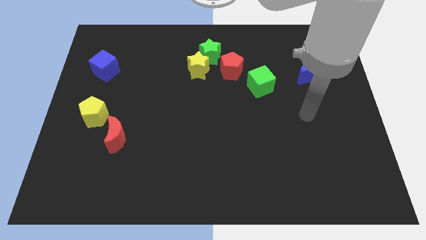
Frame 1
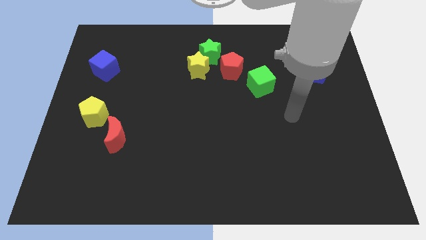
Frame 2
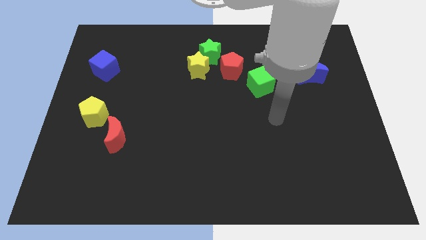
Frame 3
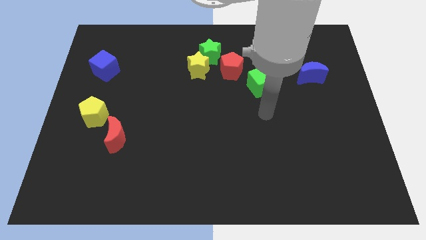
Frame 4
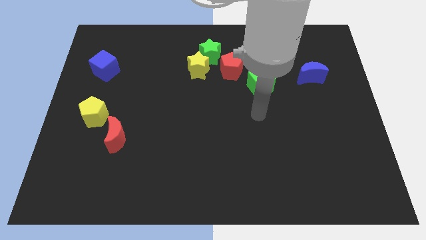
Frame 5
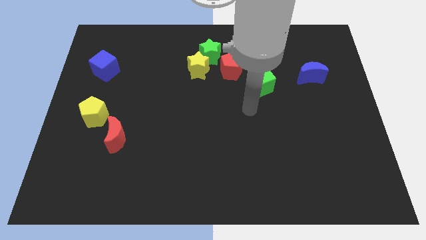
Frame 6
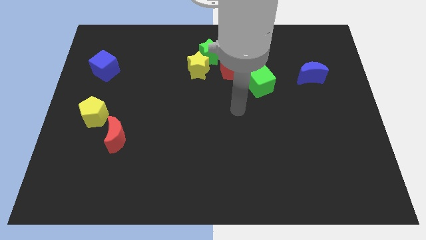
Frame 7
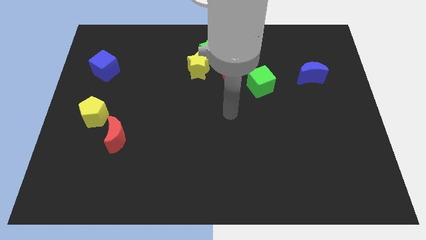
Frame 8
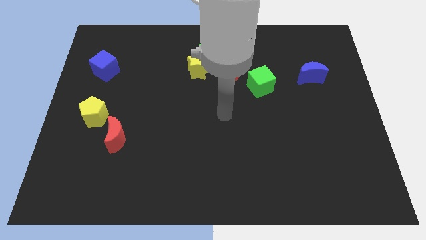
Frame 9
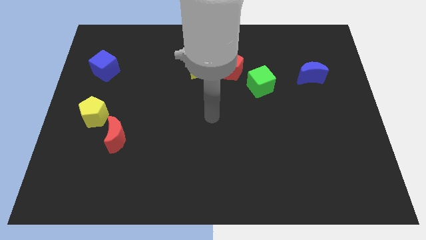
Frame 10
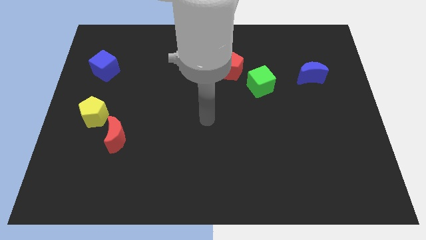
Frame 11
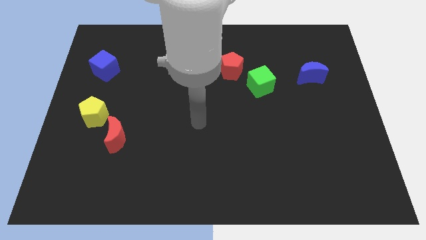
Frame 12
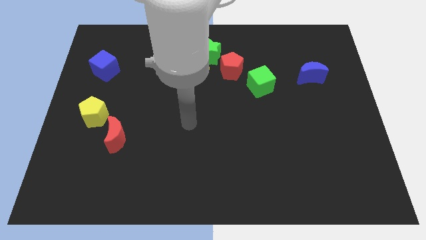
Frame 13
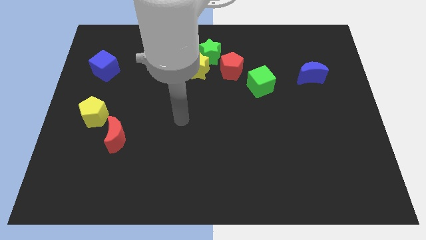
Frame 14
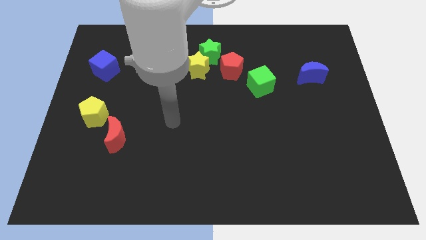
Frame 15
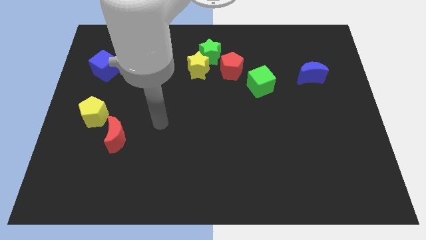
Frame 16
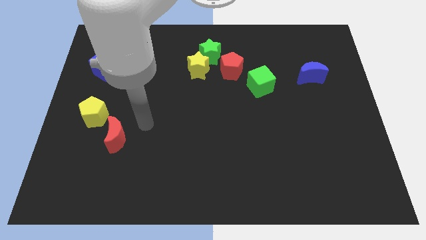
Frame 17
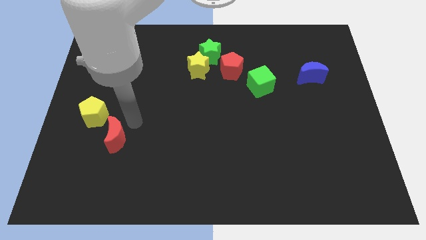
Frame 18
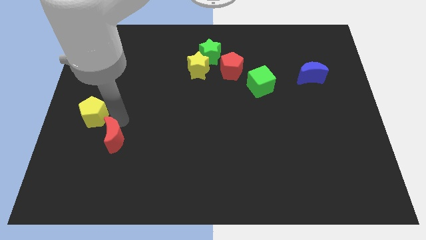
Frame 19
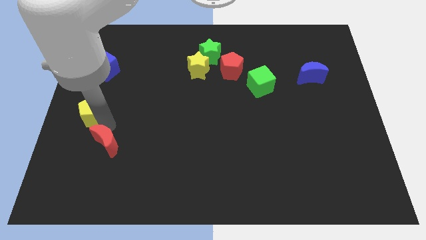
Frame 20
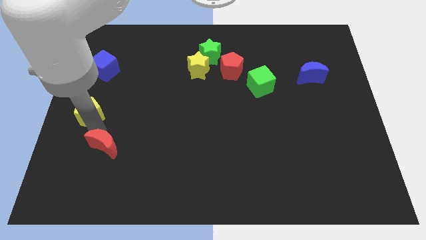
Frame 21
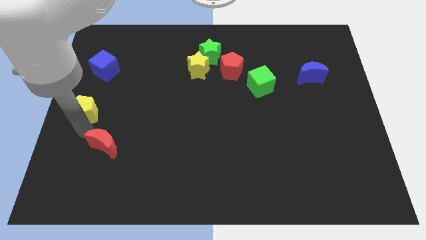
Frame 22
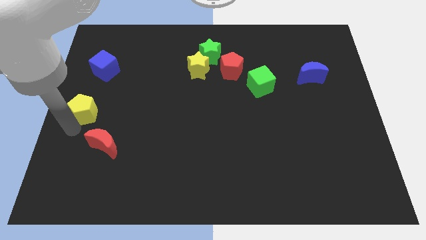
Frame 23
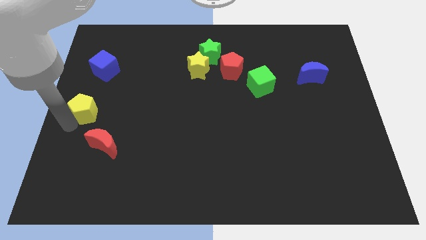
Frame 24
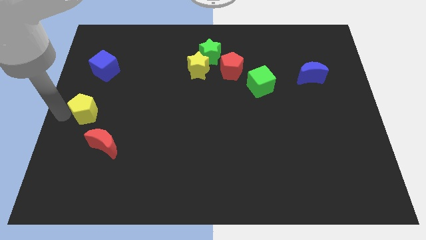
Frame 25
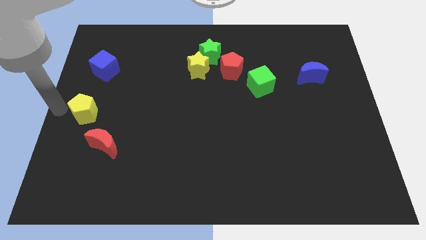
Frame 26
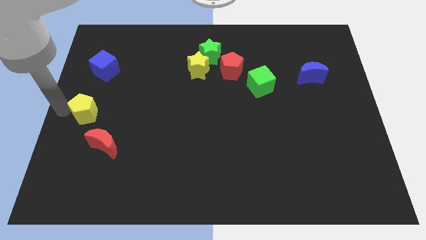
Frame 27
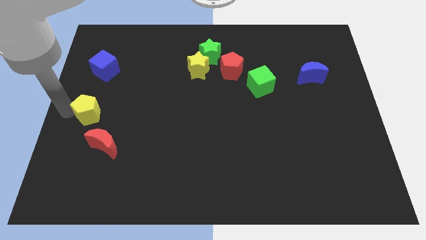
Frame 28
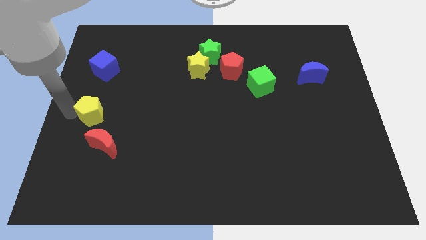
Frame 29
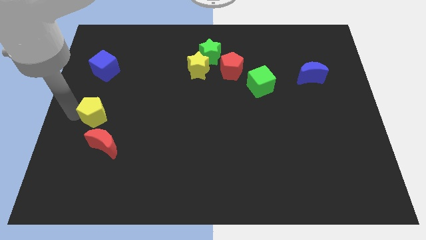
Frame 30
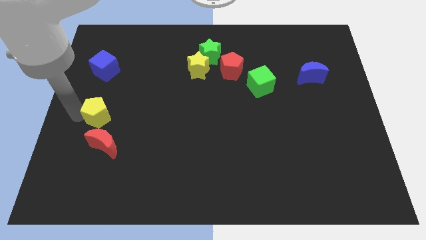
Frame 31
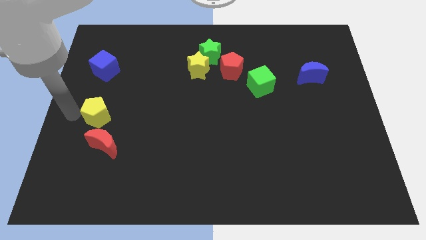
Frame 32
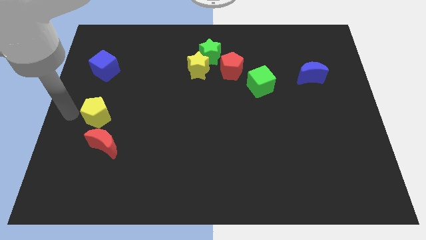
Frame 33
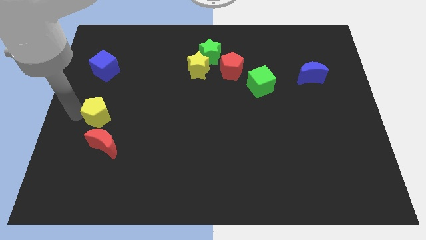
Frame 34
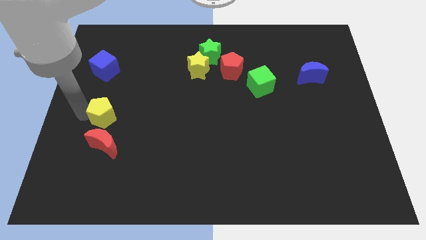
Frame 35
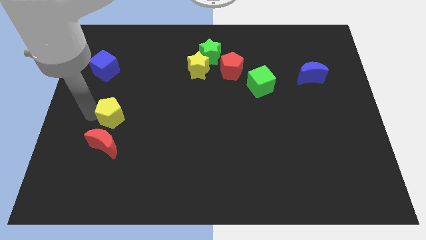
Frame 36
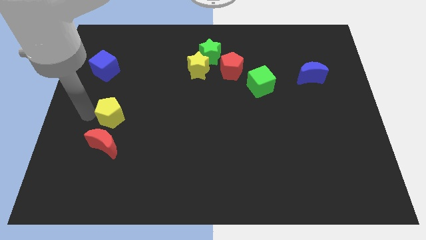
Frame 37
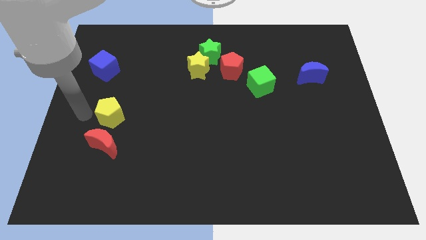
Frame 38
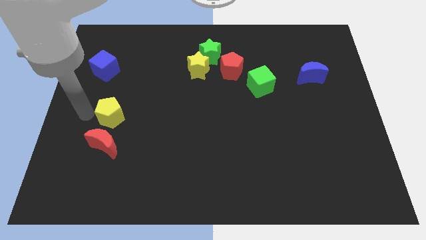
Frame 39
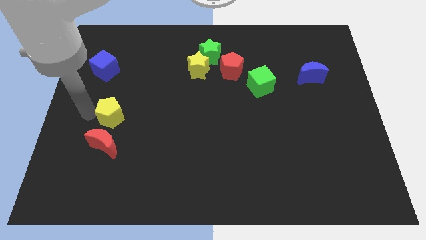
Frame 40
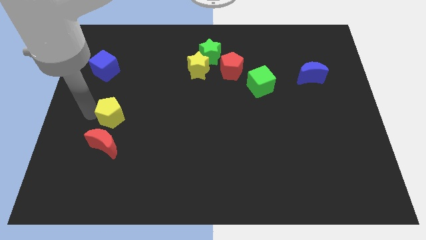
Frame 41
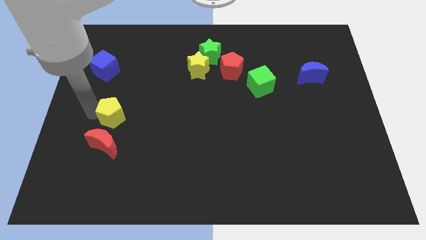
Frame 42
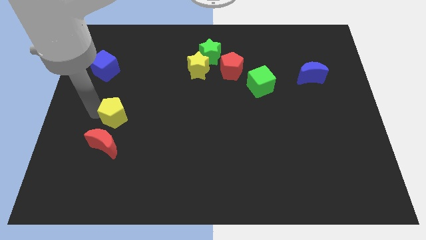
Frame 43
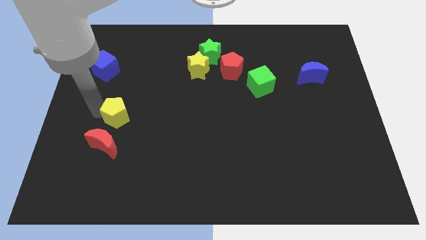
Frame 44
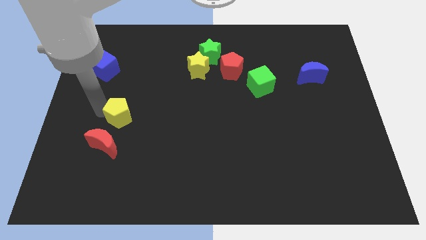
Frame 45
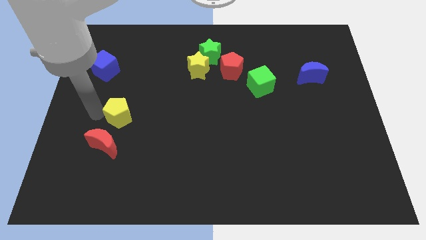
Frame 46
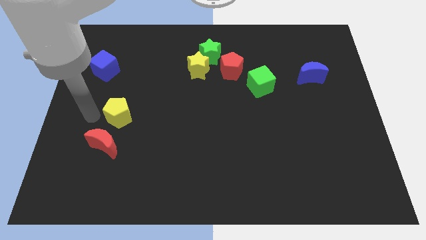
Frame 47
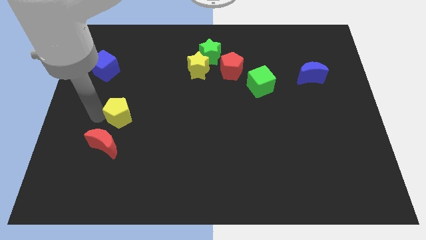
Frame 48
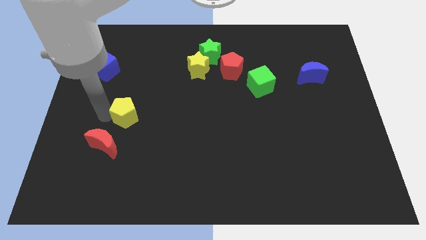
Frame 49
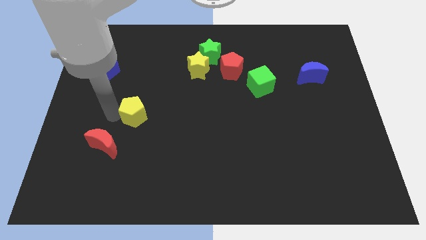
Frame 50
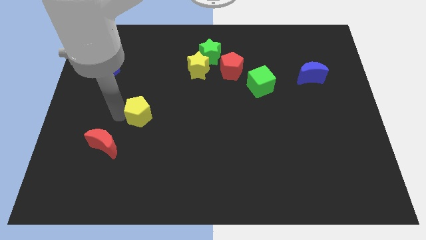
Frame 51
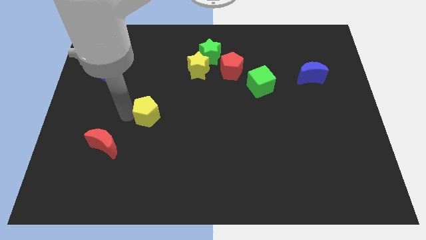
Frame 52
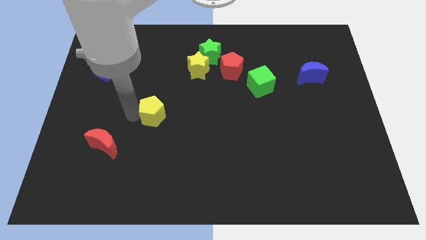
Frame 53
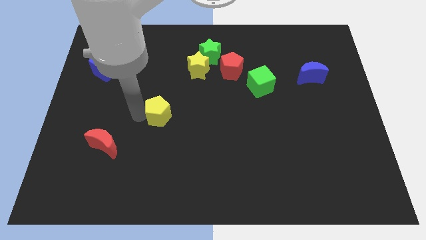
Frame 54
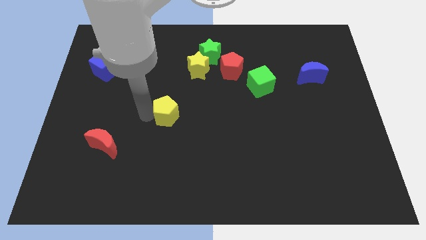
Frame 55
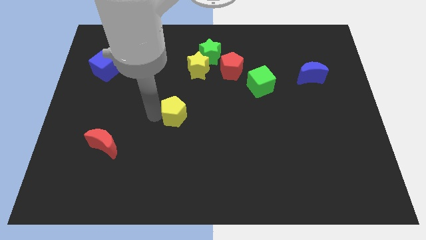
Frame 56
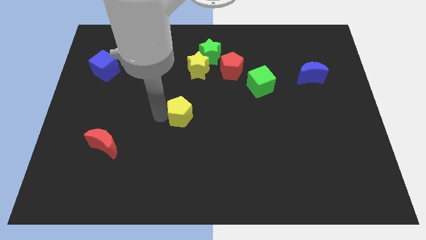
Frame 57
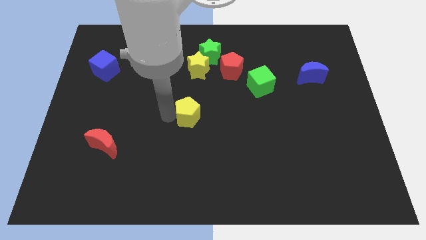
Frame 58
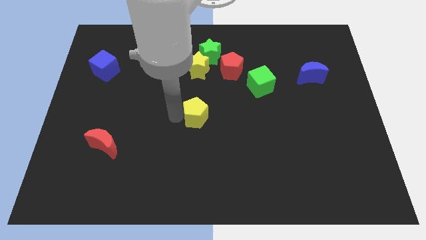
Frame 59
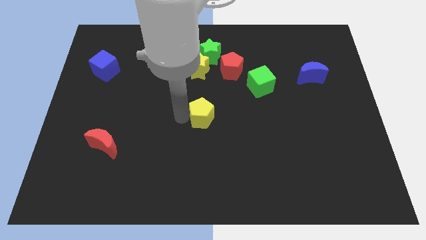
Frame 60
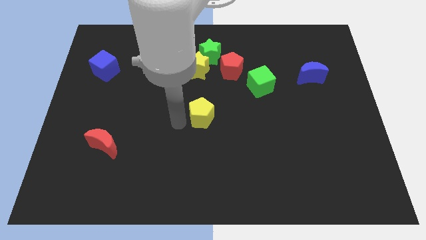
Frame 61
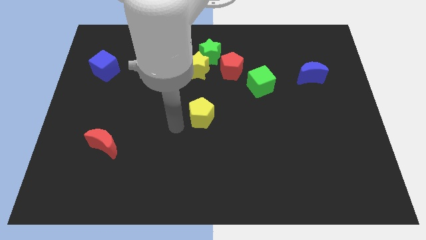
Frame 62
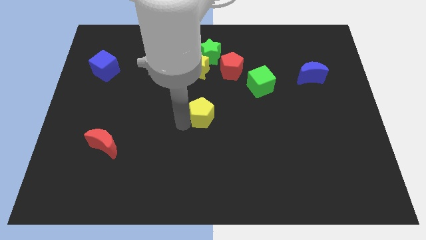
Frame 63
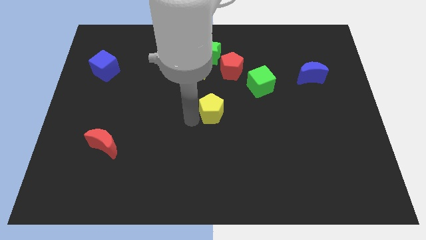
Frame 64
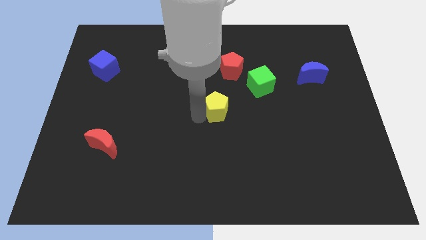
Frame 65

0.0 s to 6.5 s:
slide the yellow pentagon below the red pentagon
